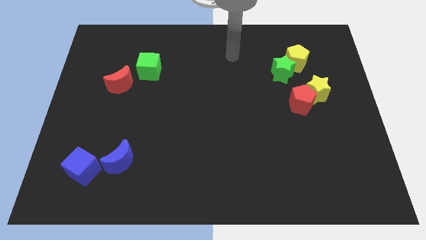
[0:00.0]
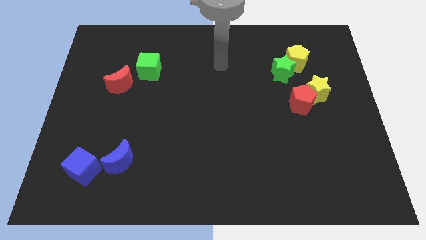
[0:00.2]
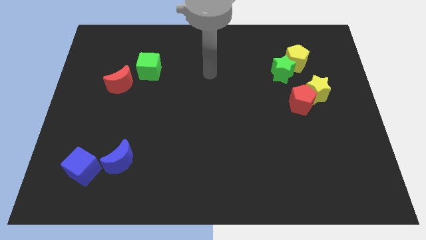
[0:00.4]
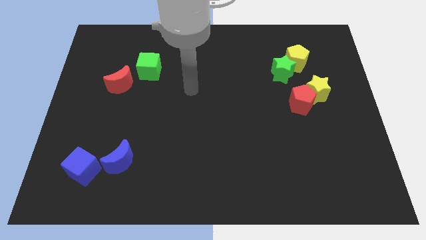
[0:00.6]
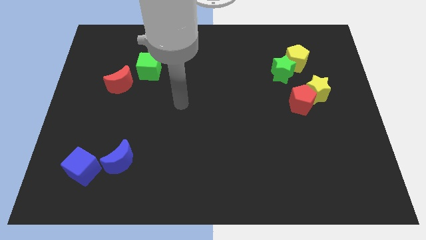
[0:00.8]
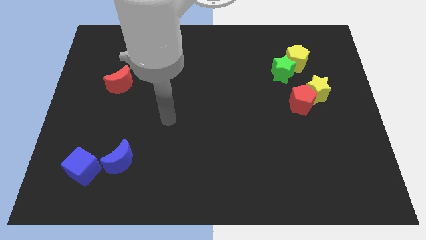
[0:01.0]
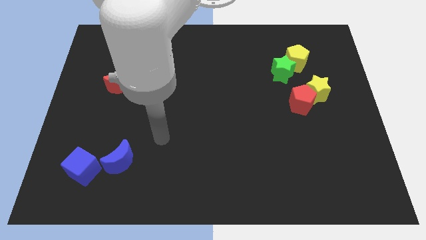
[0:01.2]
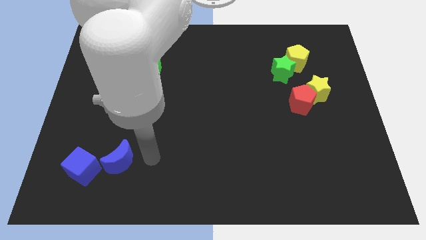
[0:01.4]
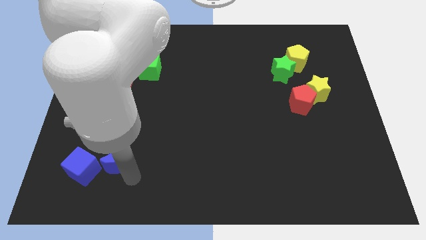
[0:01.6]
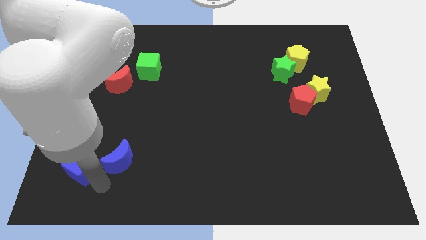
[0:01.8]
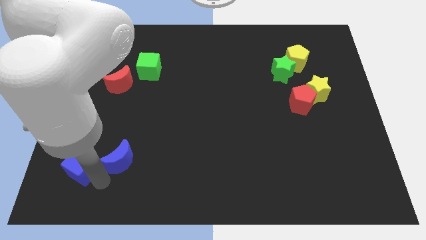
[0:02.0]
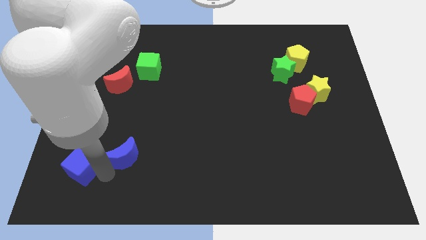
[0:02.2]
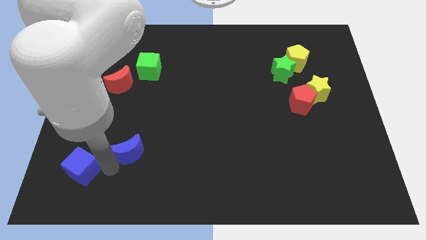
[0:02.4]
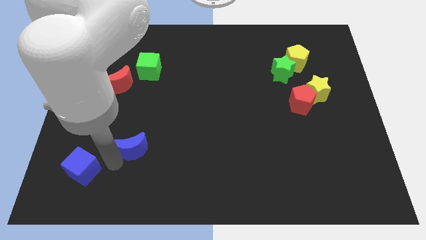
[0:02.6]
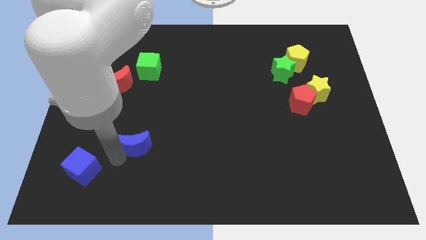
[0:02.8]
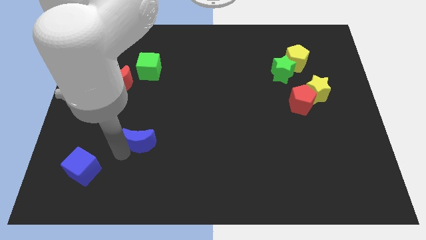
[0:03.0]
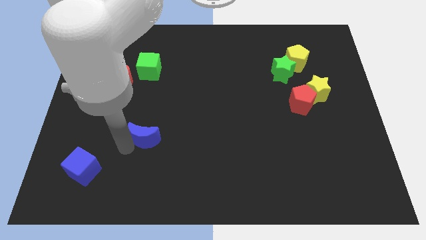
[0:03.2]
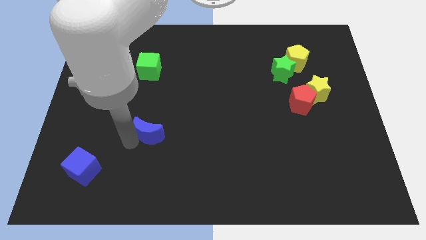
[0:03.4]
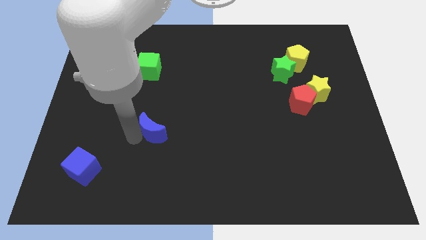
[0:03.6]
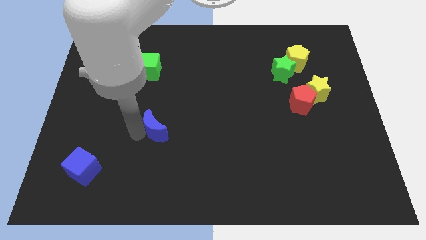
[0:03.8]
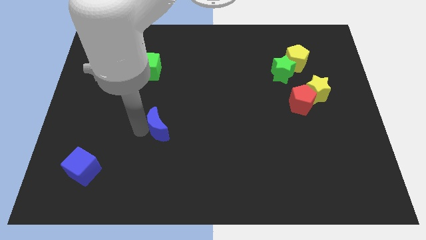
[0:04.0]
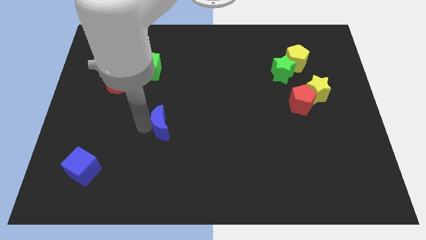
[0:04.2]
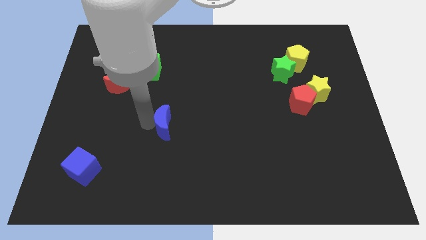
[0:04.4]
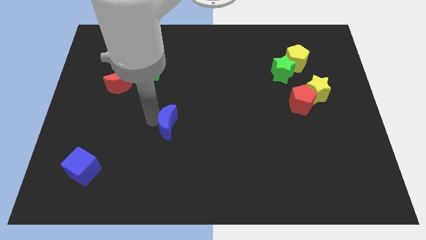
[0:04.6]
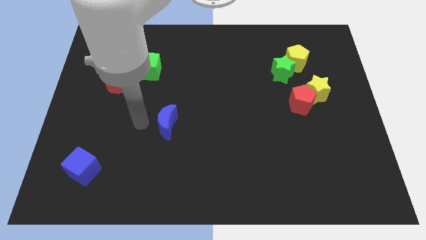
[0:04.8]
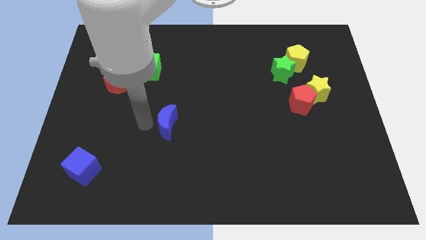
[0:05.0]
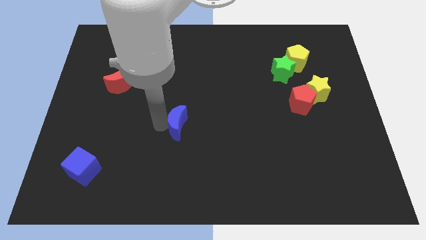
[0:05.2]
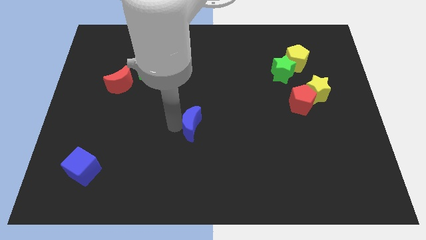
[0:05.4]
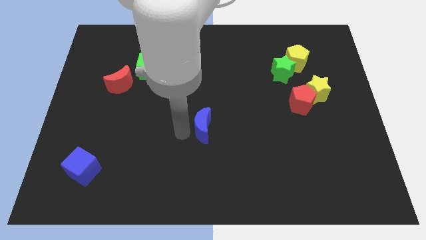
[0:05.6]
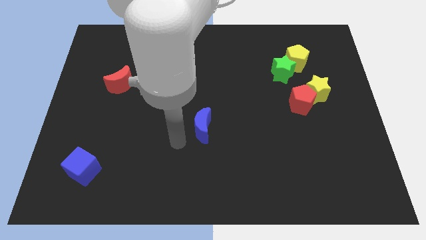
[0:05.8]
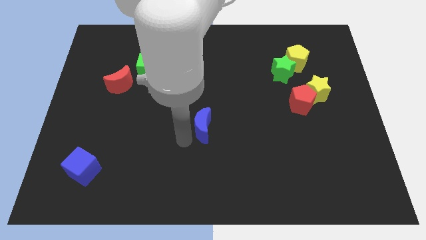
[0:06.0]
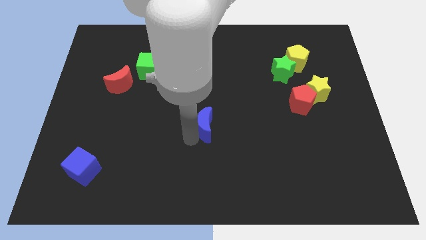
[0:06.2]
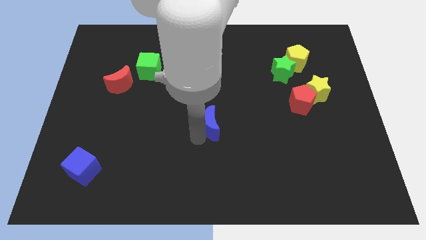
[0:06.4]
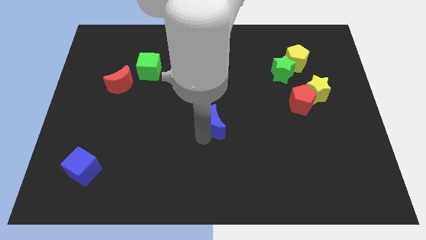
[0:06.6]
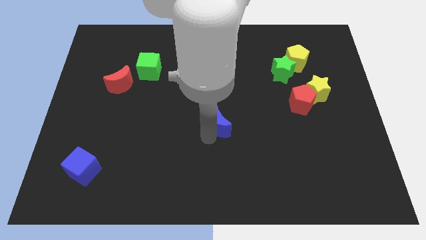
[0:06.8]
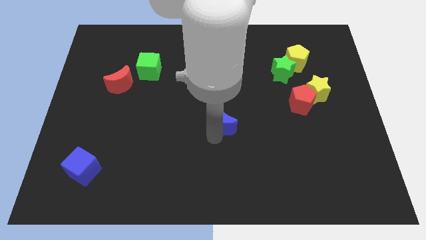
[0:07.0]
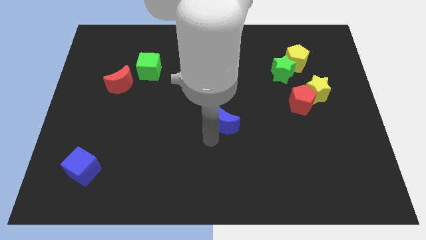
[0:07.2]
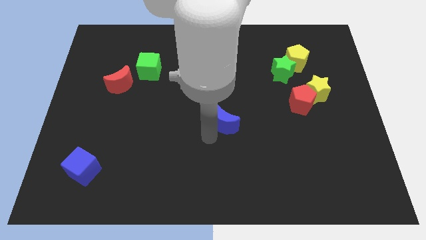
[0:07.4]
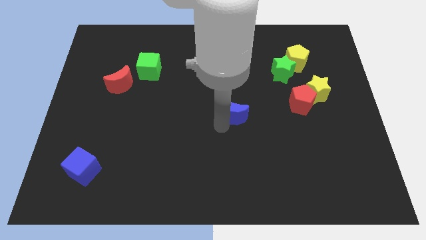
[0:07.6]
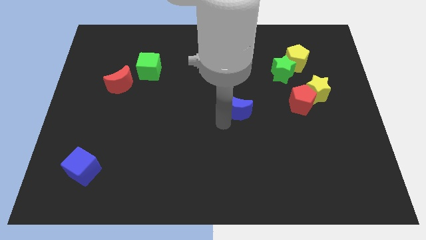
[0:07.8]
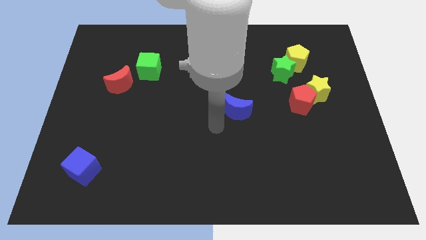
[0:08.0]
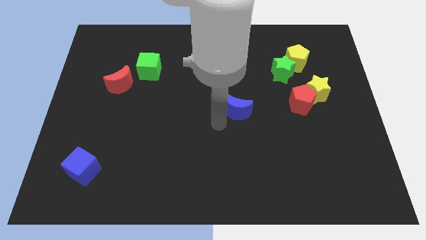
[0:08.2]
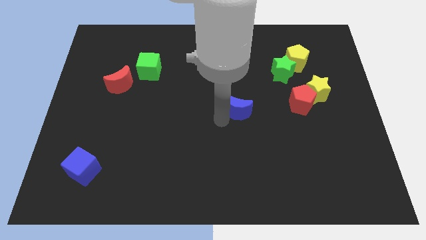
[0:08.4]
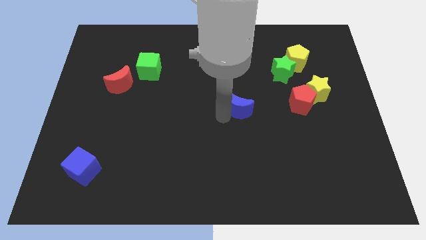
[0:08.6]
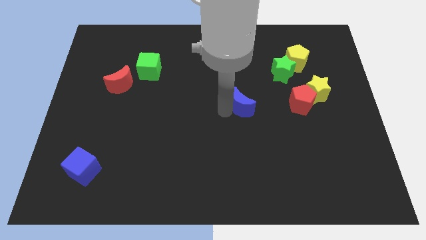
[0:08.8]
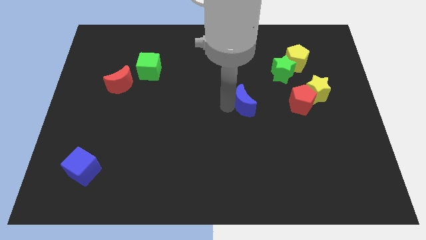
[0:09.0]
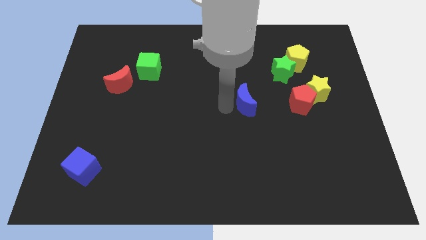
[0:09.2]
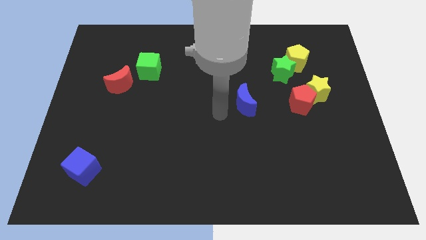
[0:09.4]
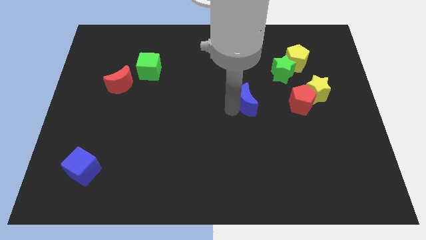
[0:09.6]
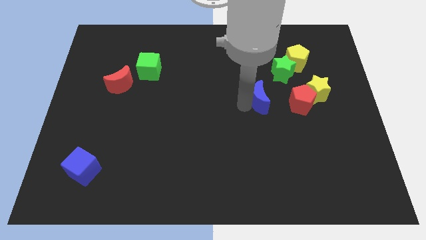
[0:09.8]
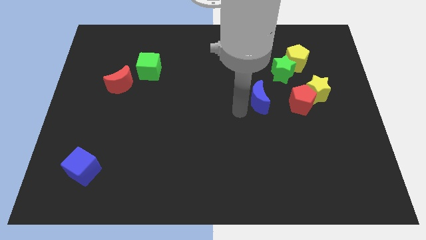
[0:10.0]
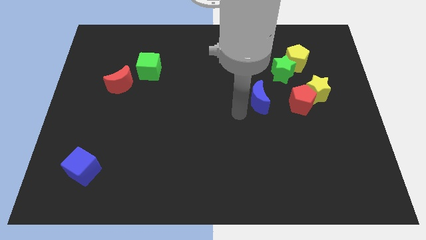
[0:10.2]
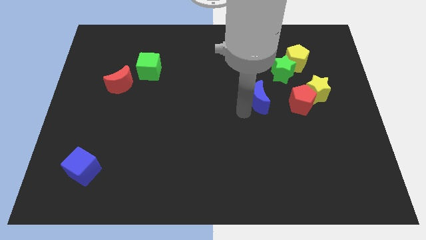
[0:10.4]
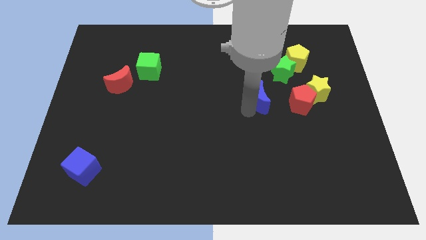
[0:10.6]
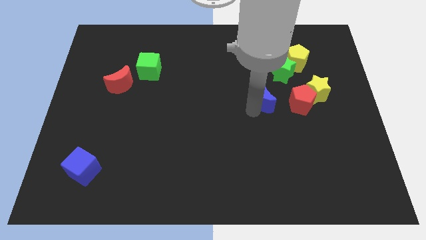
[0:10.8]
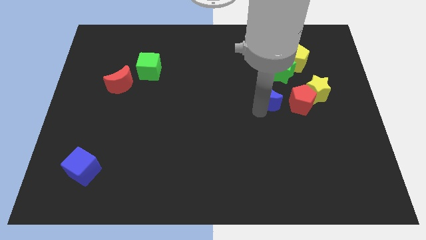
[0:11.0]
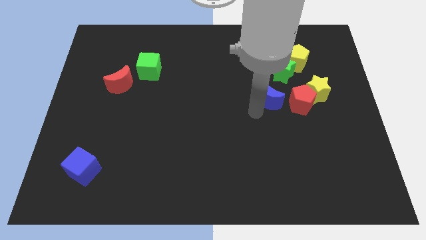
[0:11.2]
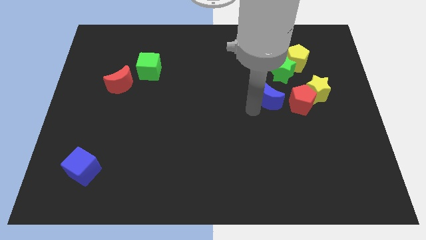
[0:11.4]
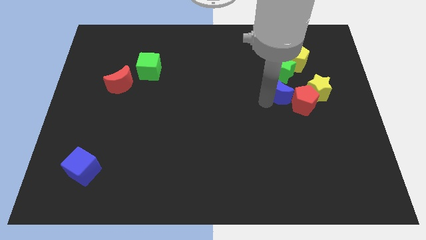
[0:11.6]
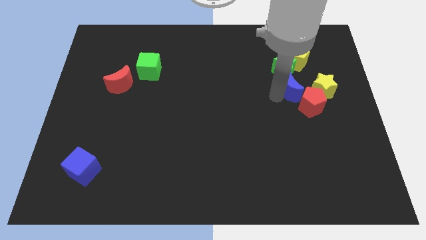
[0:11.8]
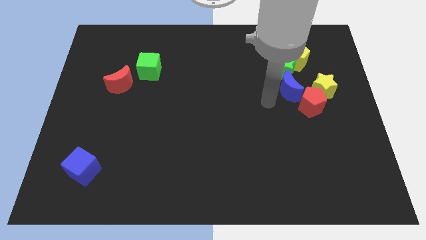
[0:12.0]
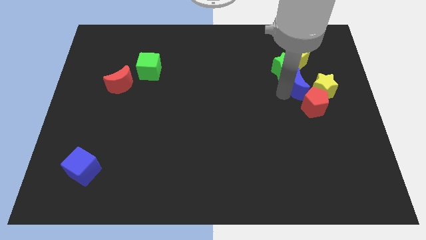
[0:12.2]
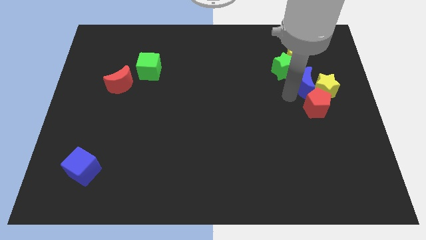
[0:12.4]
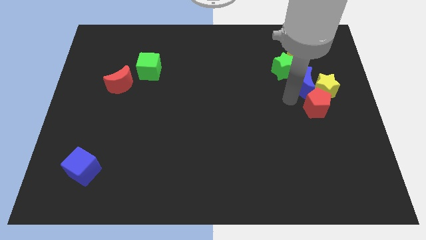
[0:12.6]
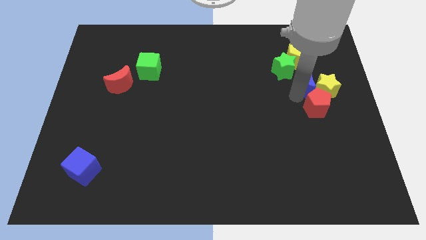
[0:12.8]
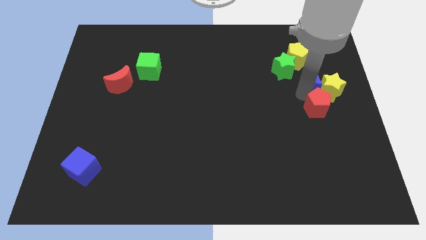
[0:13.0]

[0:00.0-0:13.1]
put the blue moon to the right of the green star

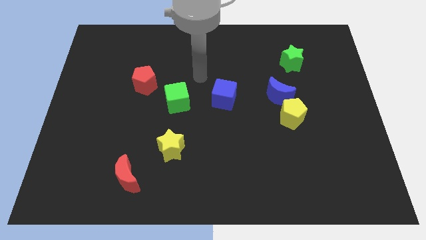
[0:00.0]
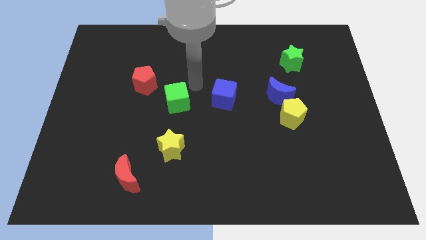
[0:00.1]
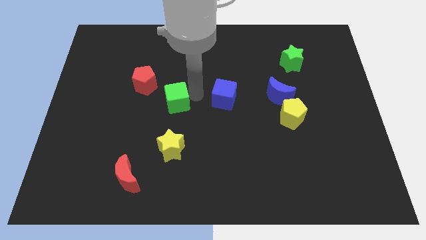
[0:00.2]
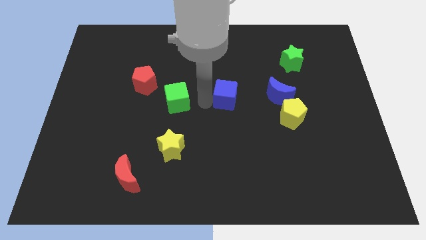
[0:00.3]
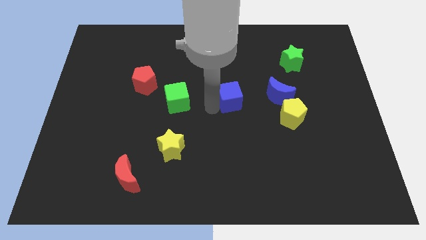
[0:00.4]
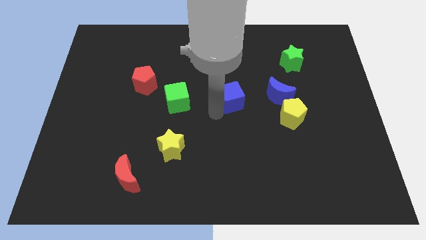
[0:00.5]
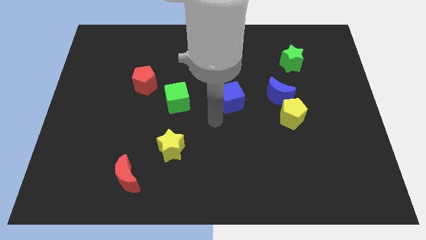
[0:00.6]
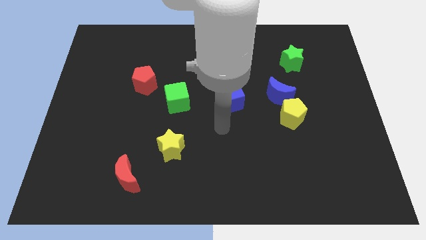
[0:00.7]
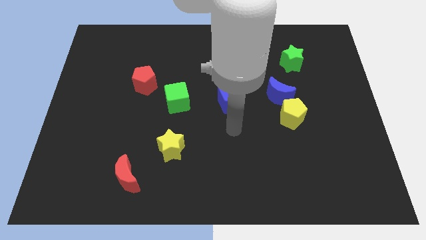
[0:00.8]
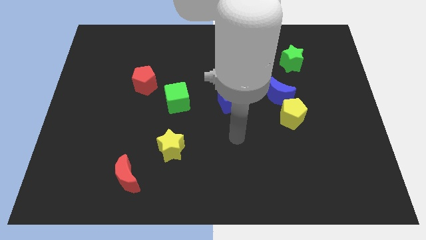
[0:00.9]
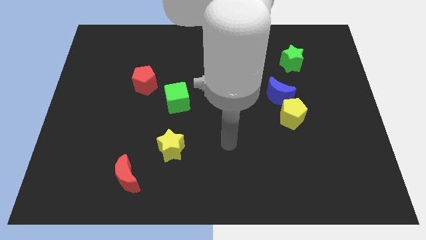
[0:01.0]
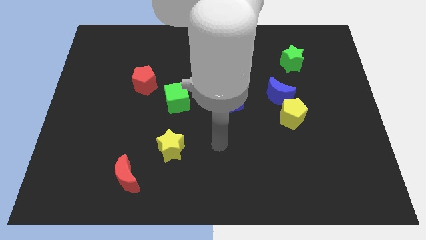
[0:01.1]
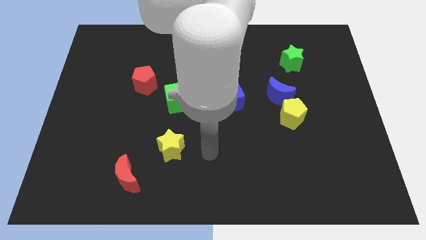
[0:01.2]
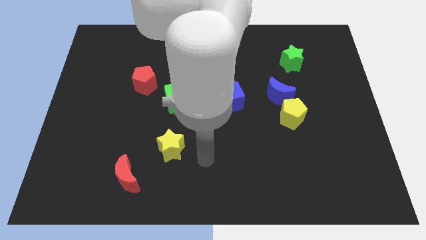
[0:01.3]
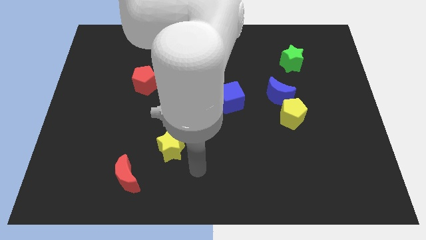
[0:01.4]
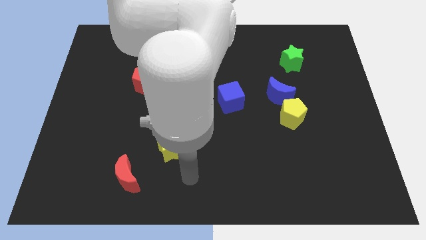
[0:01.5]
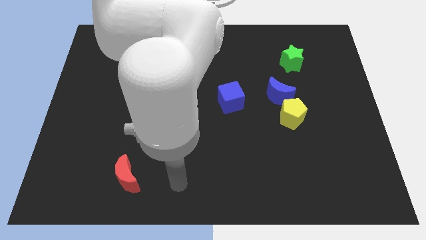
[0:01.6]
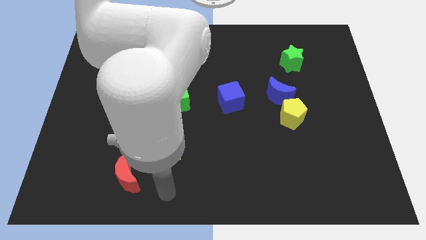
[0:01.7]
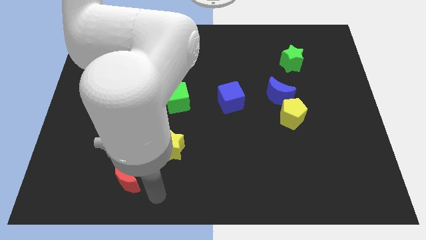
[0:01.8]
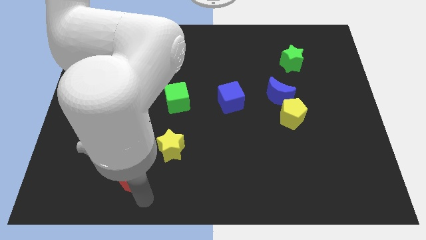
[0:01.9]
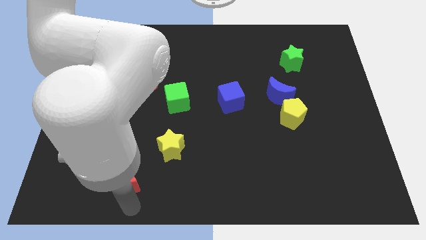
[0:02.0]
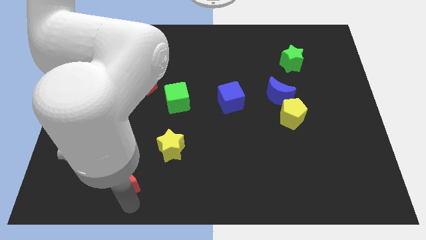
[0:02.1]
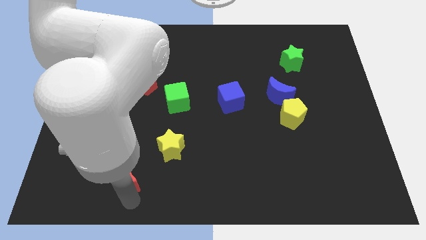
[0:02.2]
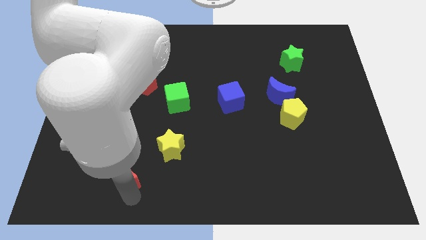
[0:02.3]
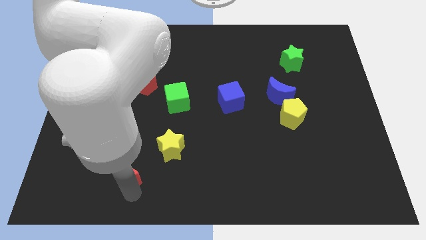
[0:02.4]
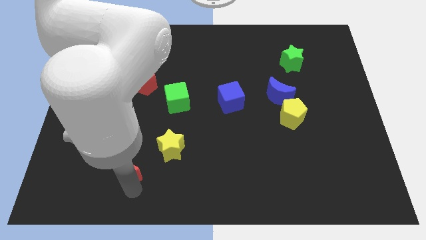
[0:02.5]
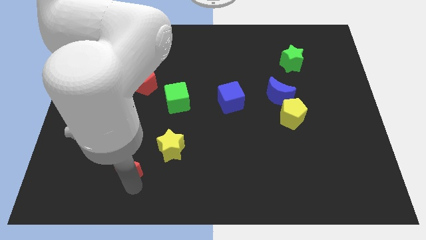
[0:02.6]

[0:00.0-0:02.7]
put the red moon left of the yellow star
